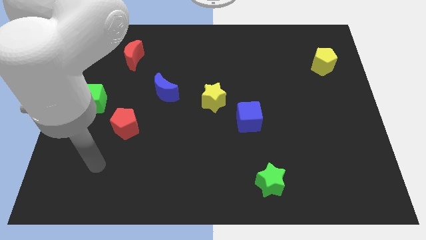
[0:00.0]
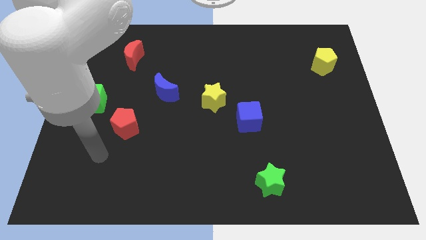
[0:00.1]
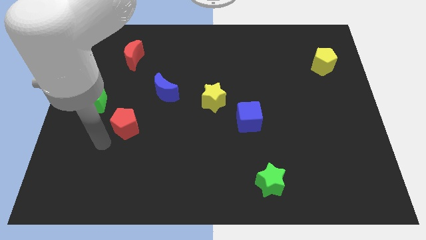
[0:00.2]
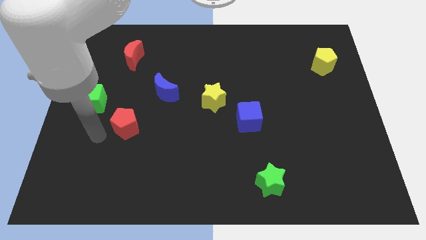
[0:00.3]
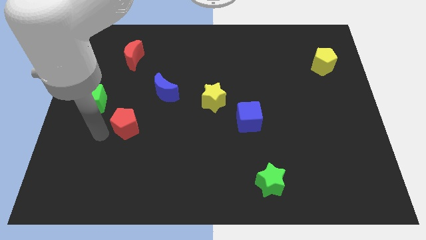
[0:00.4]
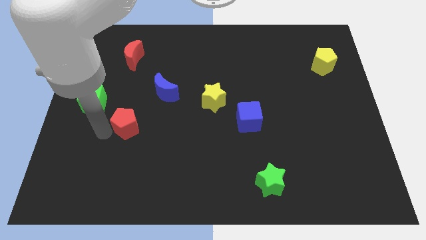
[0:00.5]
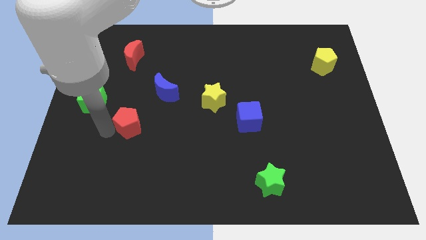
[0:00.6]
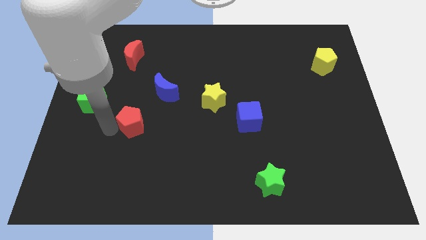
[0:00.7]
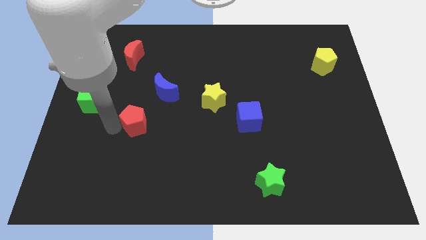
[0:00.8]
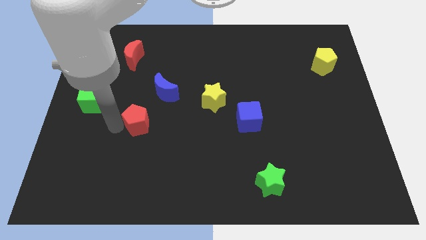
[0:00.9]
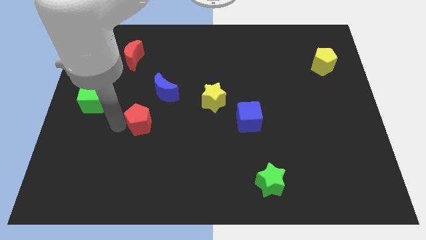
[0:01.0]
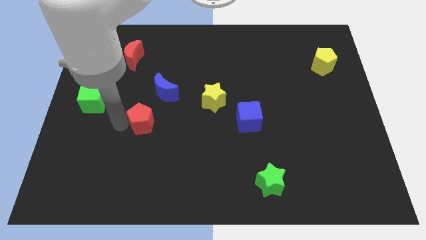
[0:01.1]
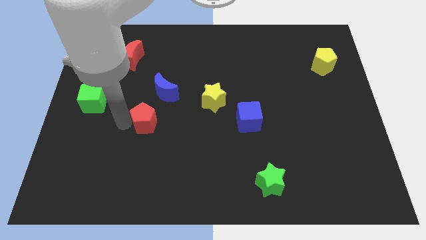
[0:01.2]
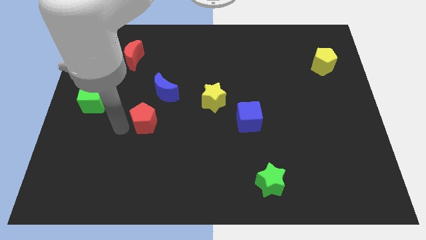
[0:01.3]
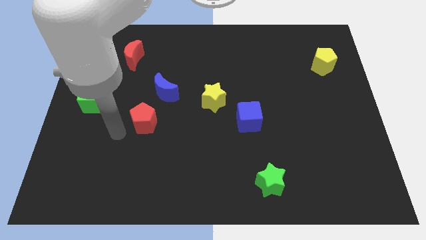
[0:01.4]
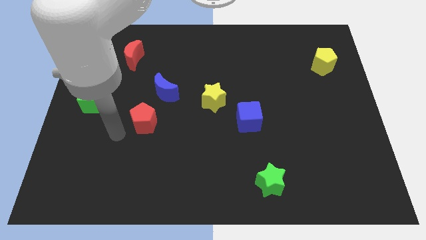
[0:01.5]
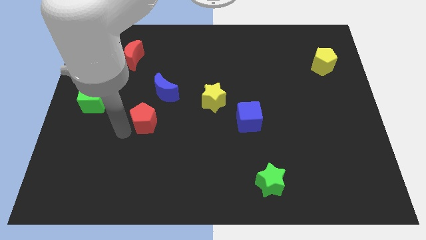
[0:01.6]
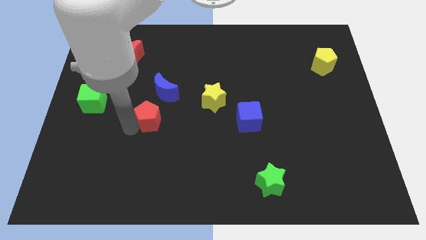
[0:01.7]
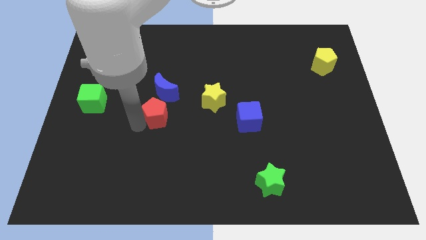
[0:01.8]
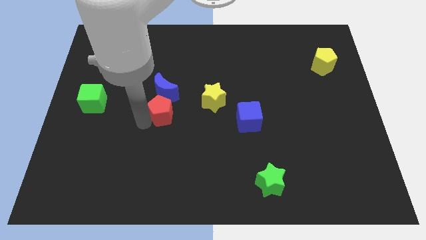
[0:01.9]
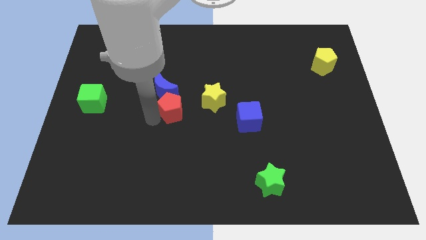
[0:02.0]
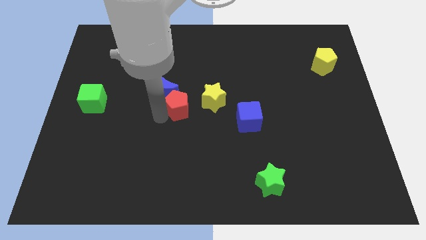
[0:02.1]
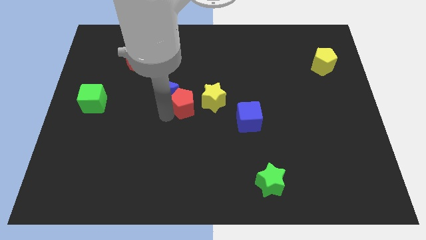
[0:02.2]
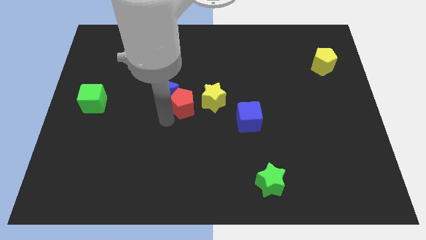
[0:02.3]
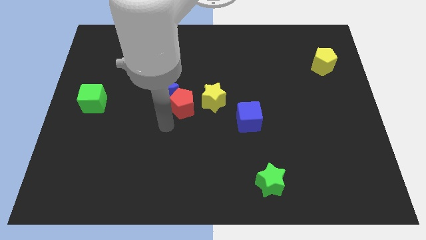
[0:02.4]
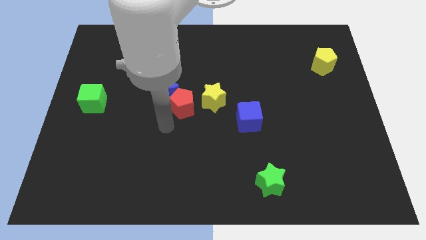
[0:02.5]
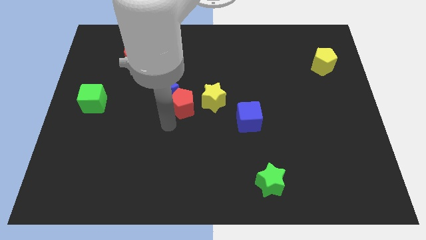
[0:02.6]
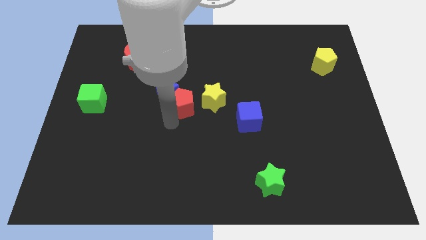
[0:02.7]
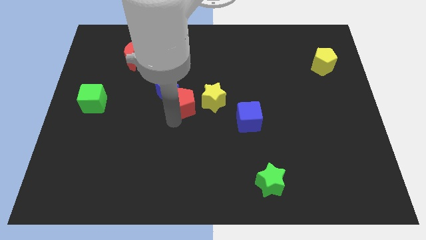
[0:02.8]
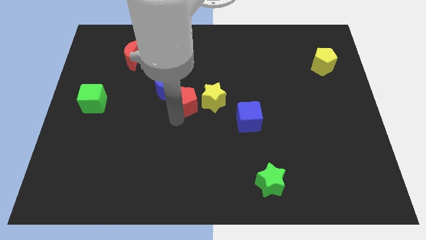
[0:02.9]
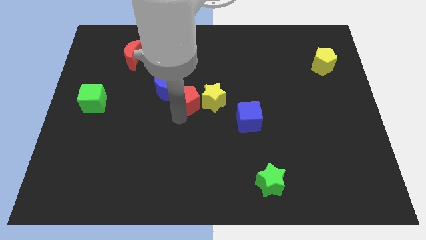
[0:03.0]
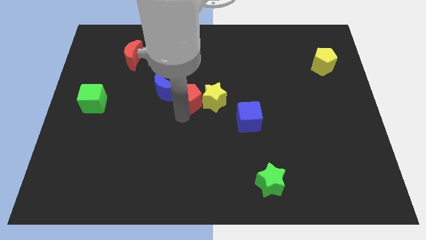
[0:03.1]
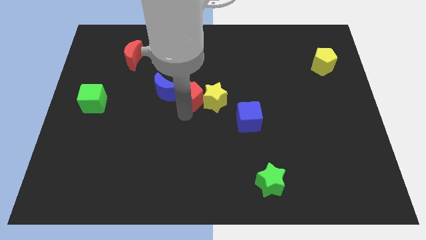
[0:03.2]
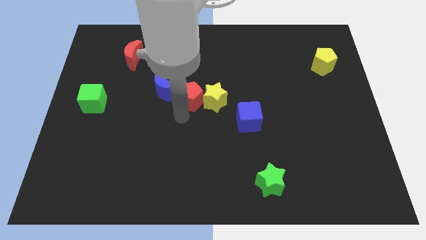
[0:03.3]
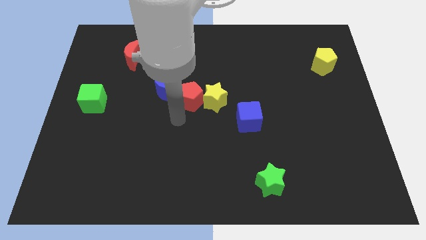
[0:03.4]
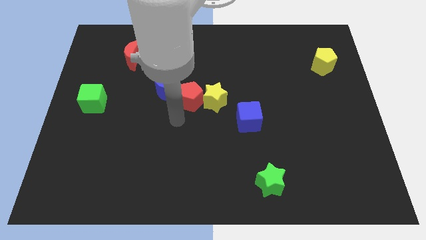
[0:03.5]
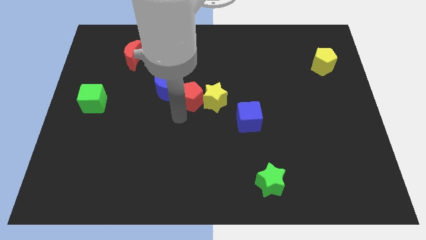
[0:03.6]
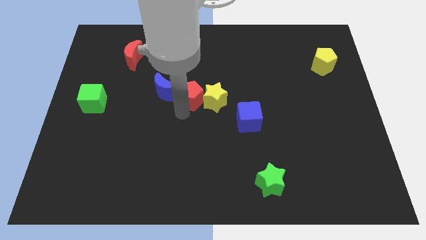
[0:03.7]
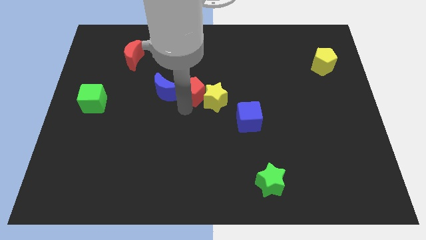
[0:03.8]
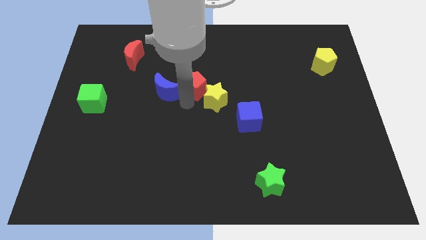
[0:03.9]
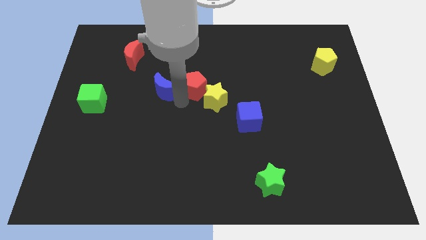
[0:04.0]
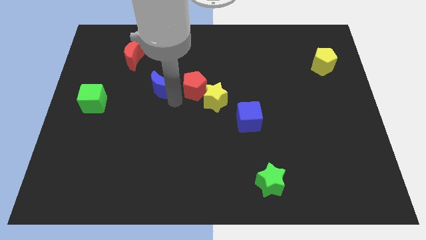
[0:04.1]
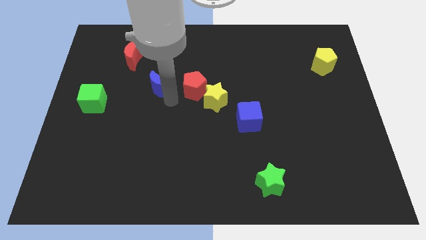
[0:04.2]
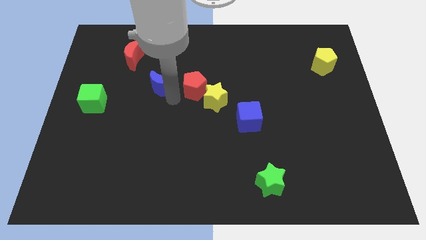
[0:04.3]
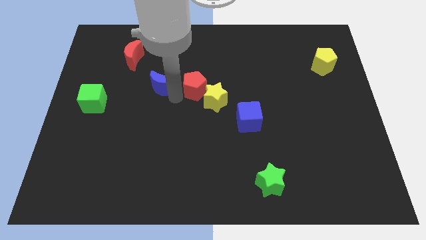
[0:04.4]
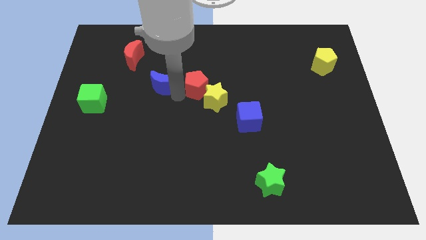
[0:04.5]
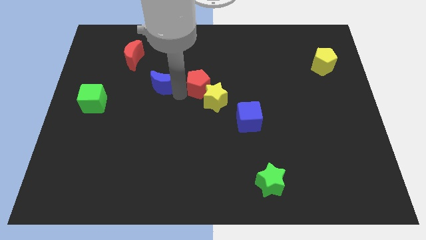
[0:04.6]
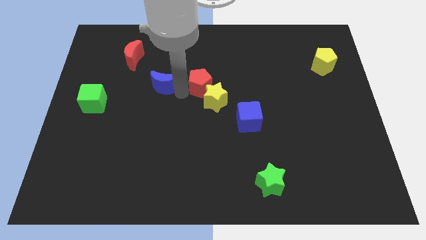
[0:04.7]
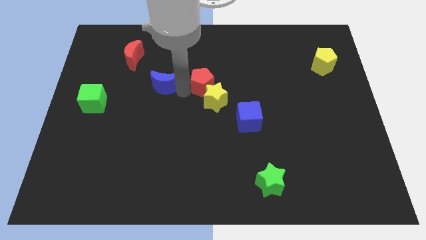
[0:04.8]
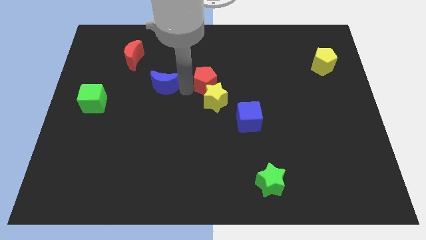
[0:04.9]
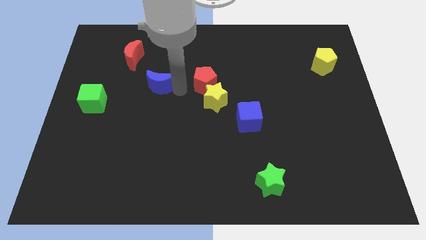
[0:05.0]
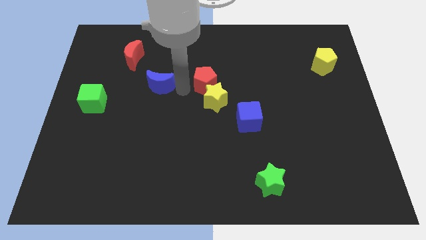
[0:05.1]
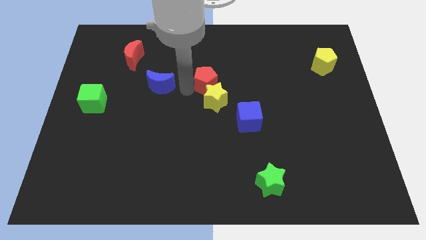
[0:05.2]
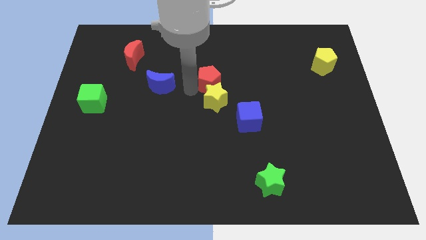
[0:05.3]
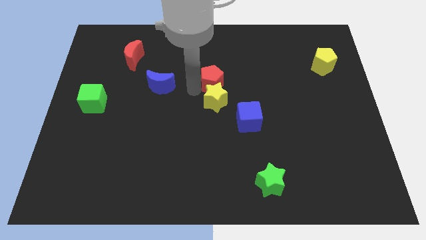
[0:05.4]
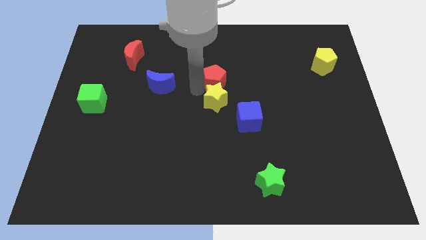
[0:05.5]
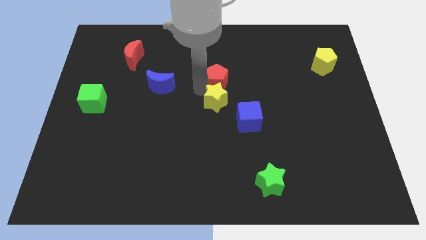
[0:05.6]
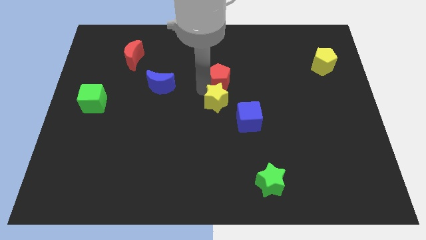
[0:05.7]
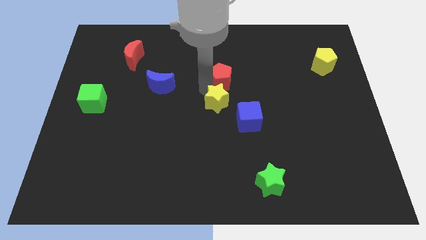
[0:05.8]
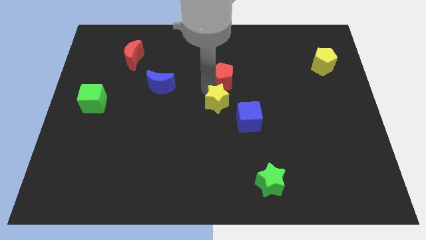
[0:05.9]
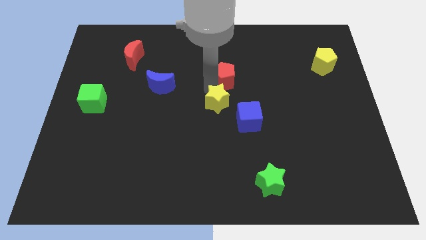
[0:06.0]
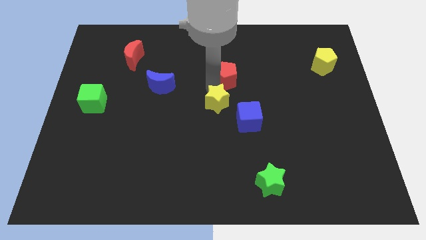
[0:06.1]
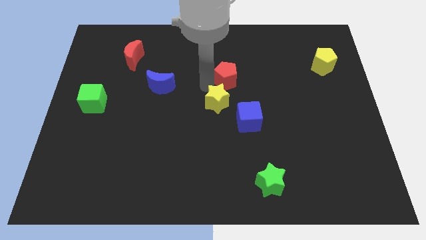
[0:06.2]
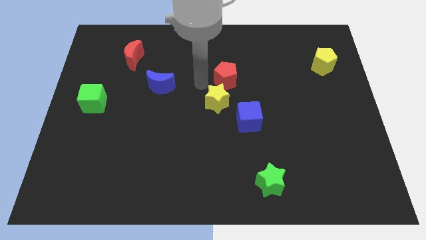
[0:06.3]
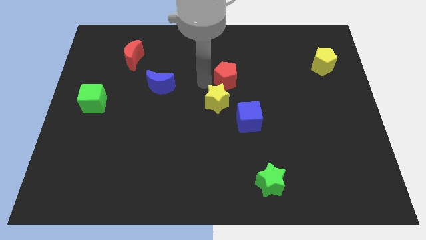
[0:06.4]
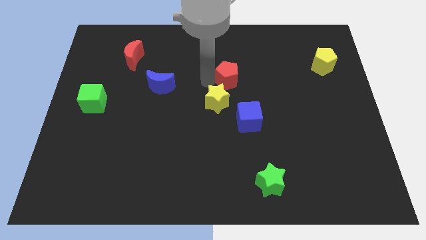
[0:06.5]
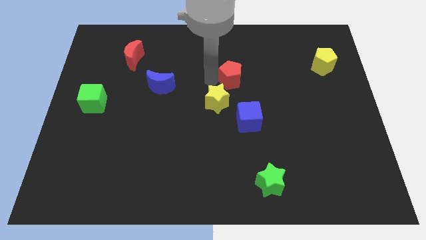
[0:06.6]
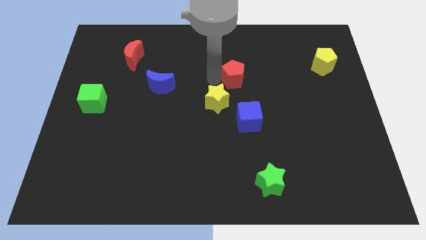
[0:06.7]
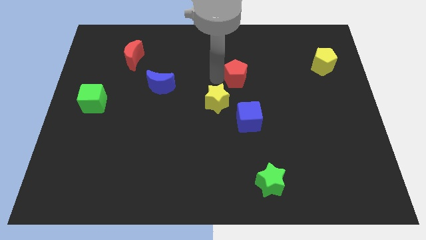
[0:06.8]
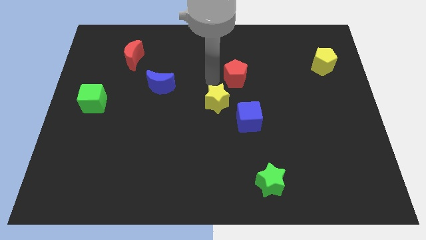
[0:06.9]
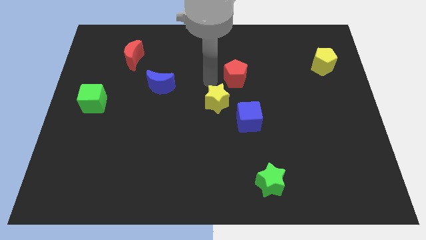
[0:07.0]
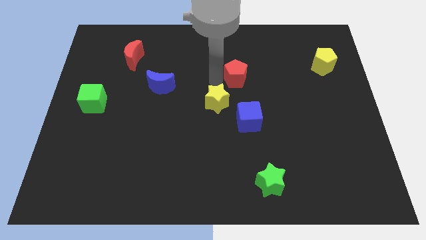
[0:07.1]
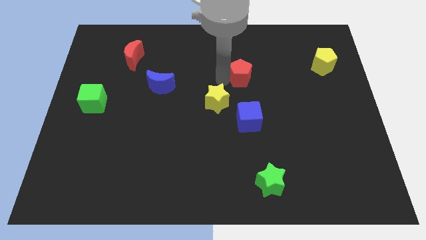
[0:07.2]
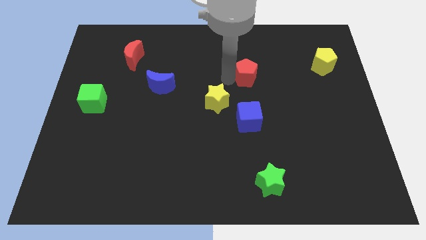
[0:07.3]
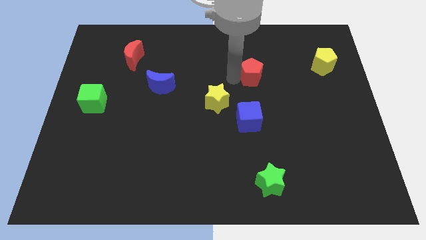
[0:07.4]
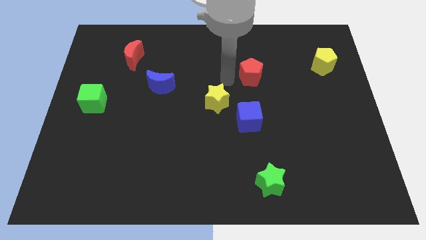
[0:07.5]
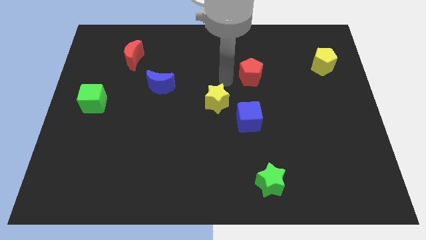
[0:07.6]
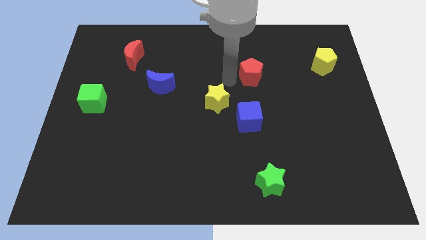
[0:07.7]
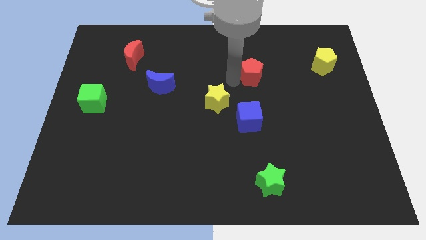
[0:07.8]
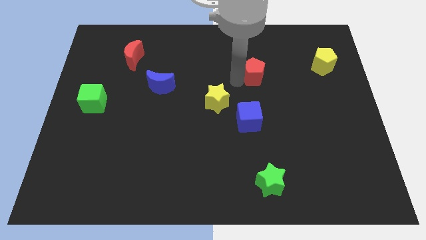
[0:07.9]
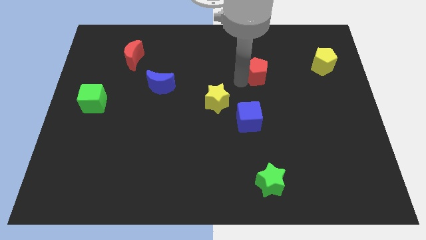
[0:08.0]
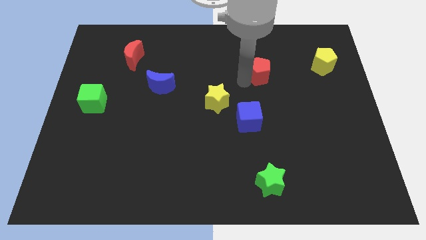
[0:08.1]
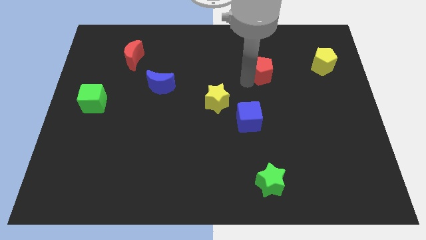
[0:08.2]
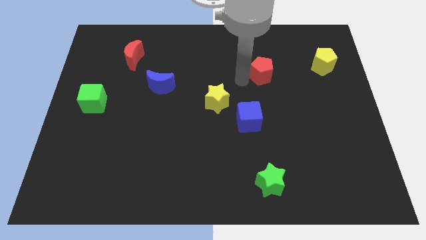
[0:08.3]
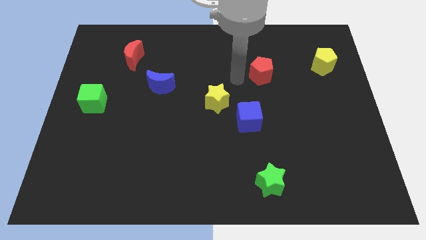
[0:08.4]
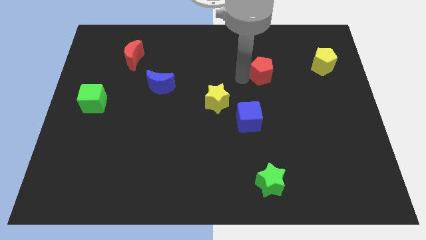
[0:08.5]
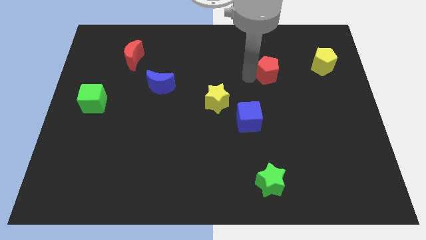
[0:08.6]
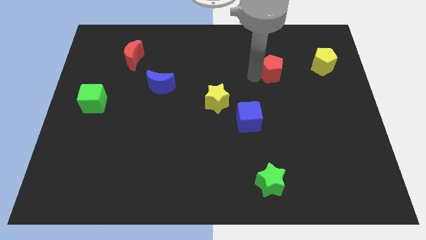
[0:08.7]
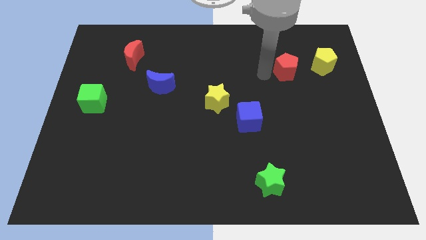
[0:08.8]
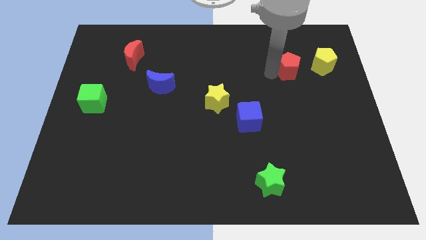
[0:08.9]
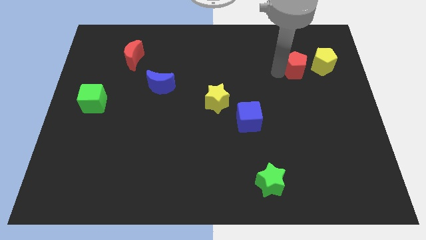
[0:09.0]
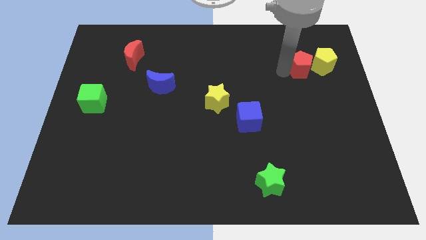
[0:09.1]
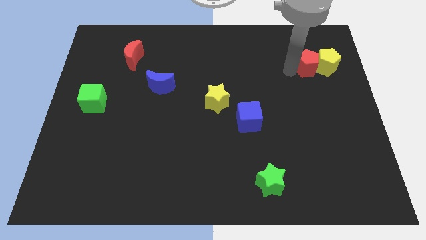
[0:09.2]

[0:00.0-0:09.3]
move the red pentagon towards the yellow pentagon
